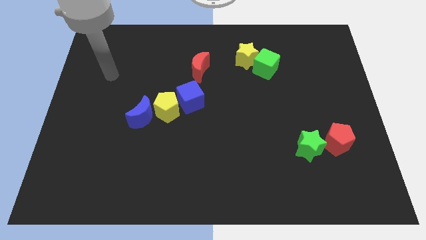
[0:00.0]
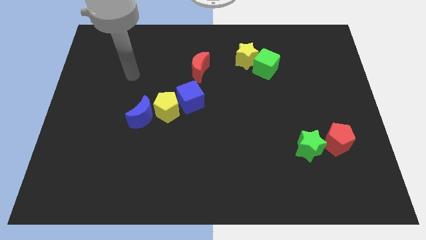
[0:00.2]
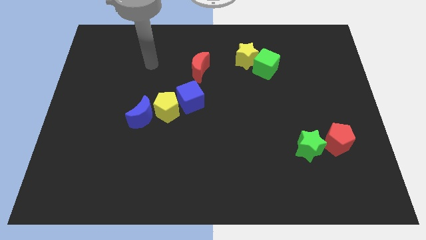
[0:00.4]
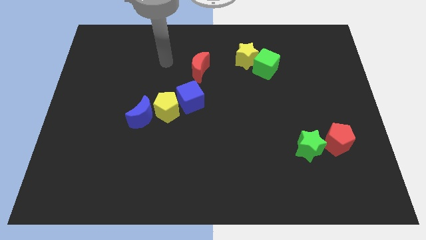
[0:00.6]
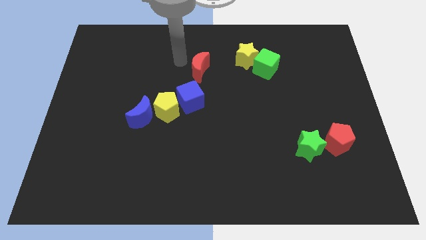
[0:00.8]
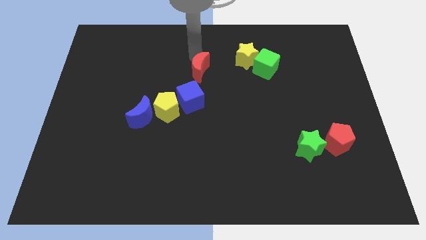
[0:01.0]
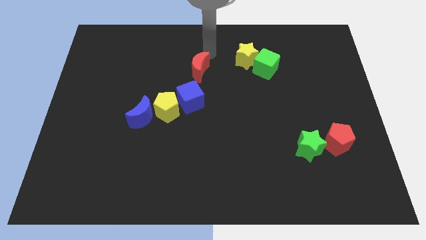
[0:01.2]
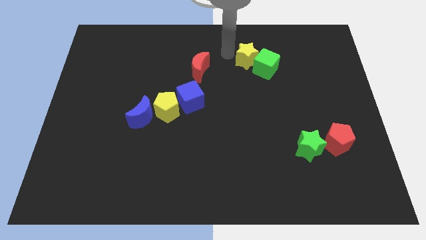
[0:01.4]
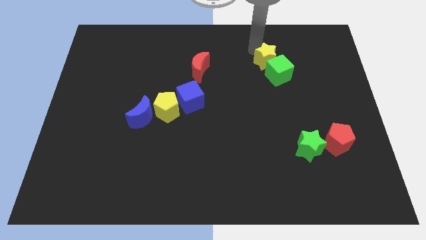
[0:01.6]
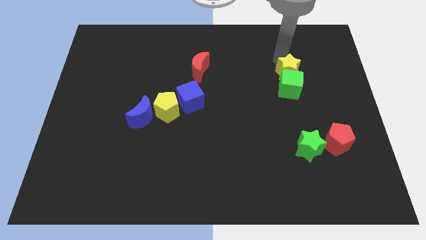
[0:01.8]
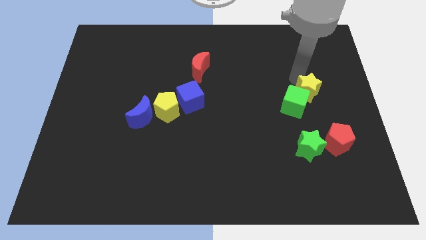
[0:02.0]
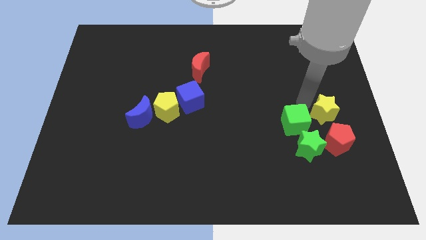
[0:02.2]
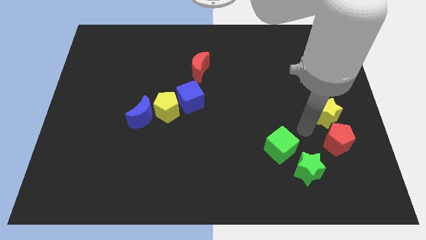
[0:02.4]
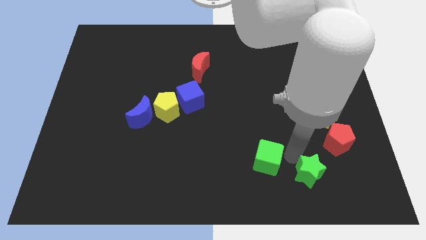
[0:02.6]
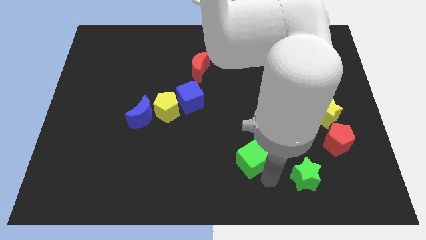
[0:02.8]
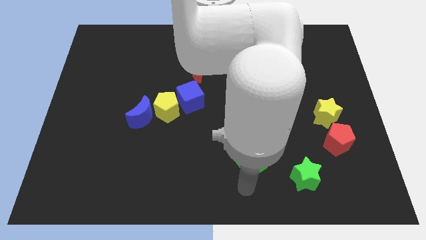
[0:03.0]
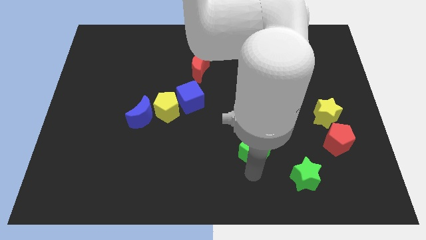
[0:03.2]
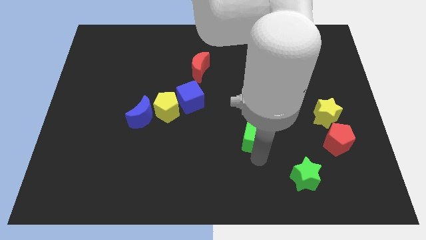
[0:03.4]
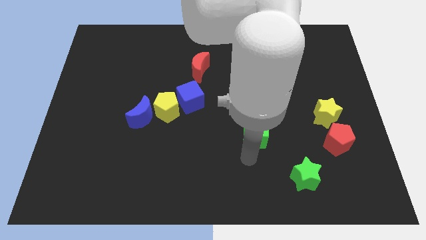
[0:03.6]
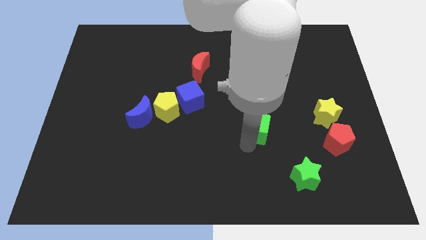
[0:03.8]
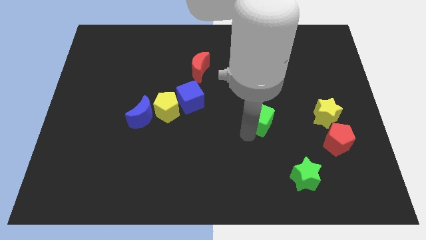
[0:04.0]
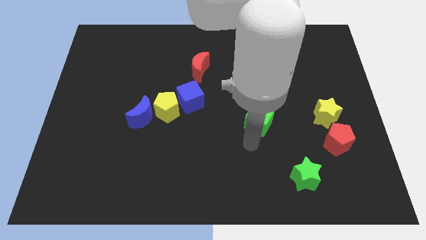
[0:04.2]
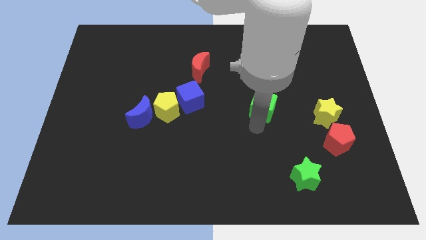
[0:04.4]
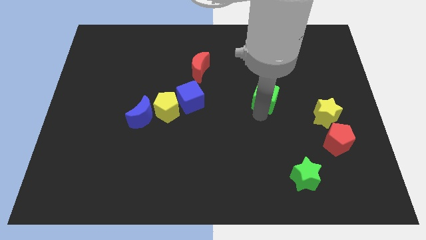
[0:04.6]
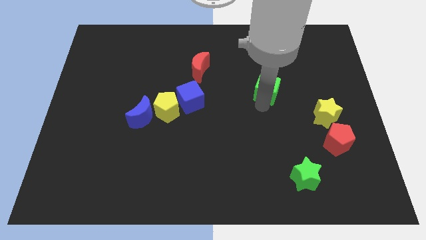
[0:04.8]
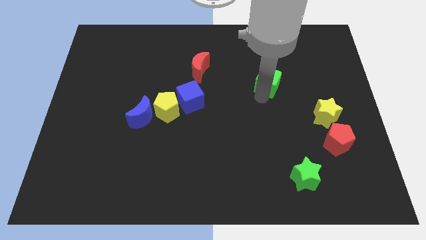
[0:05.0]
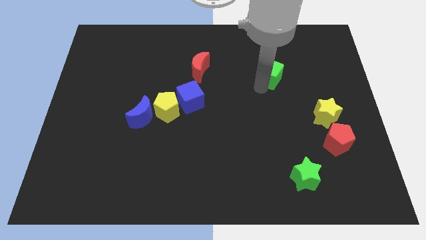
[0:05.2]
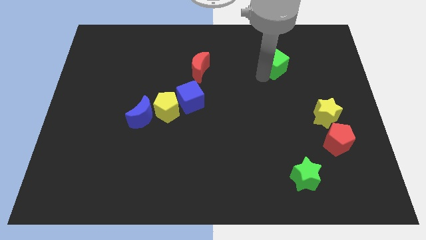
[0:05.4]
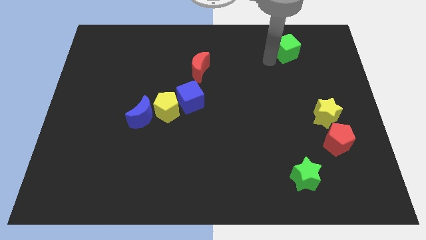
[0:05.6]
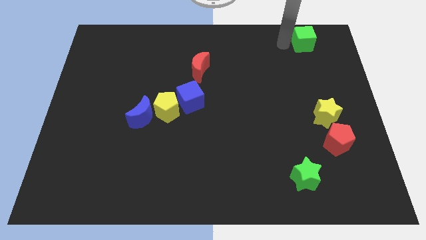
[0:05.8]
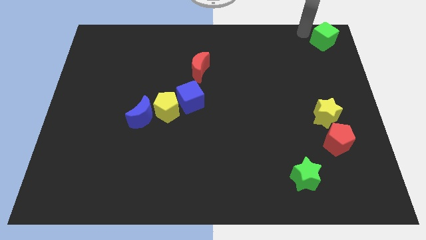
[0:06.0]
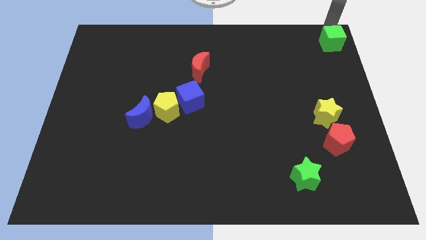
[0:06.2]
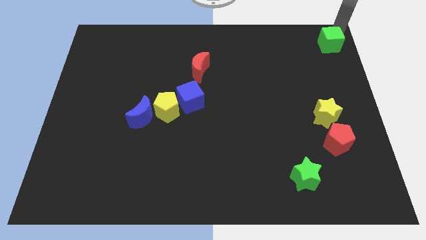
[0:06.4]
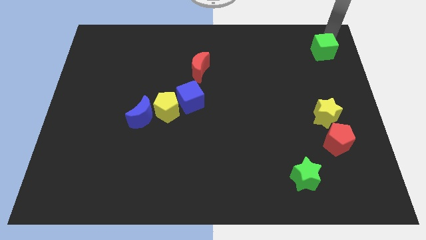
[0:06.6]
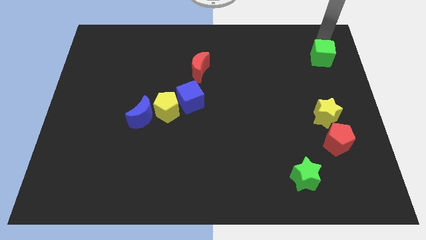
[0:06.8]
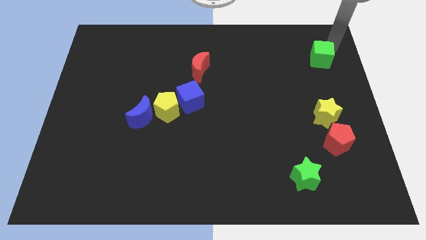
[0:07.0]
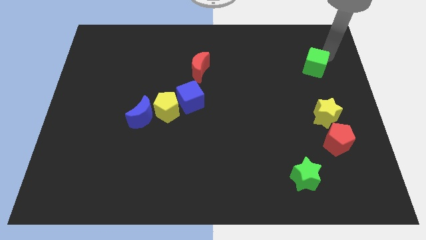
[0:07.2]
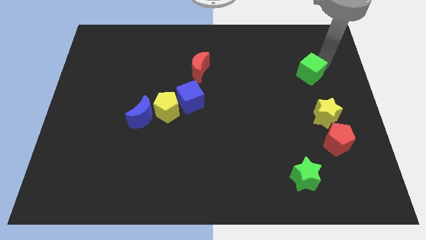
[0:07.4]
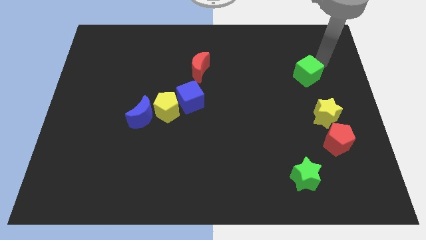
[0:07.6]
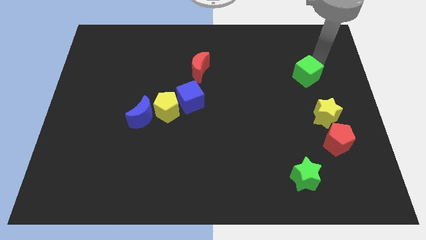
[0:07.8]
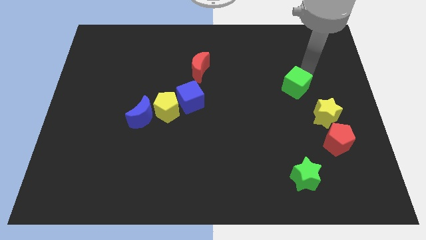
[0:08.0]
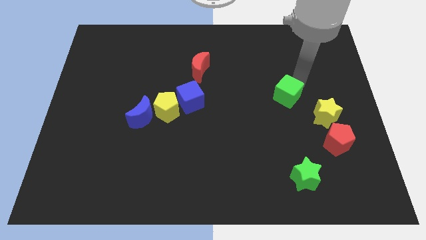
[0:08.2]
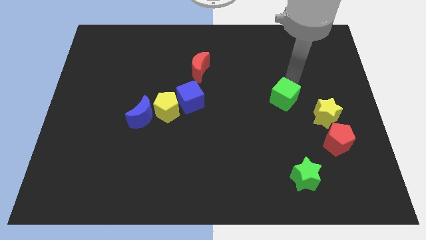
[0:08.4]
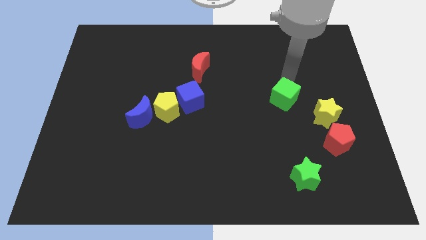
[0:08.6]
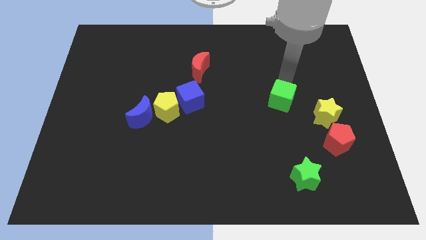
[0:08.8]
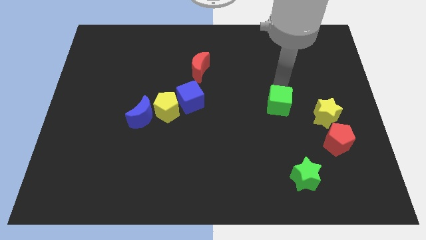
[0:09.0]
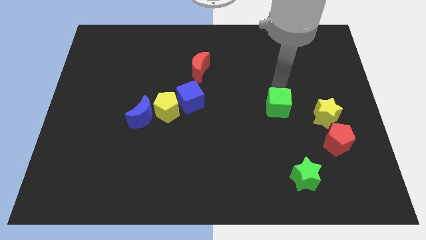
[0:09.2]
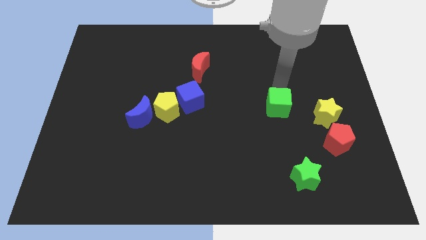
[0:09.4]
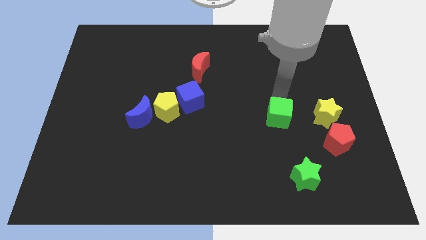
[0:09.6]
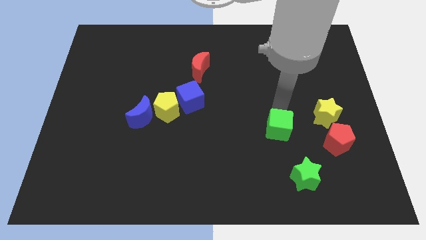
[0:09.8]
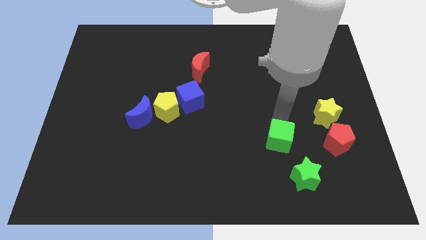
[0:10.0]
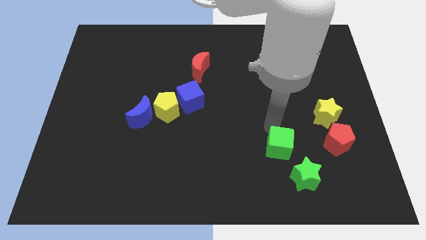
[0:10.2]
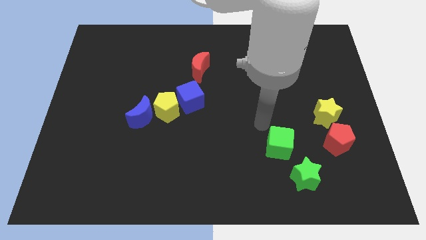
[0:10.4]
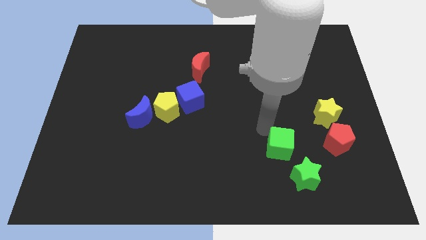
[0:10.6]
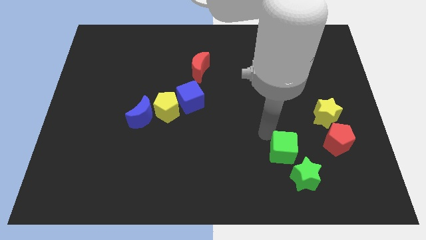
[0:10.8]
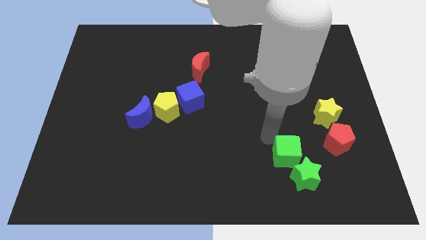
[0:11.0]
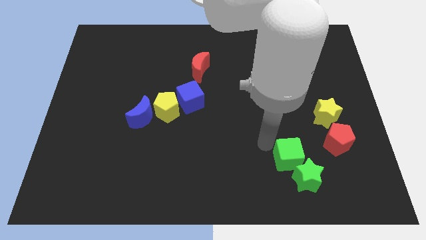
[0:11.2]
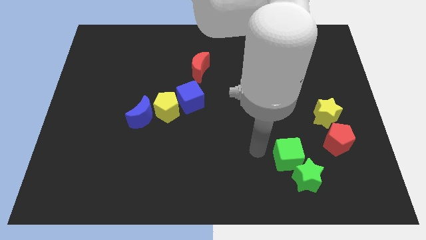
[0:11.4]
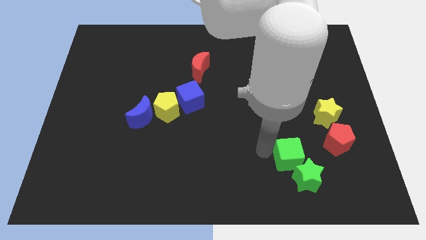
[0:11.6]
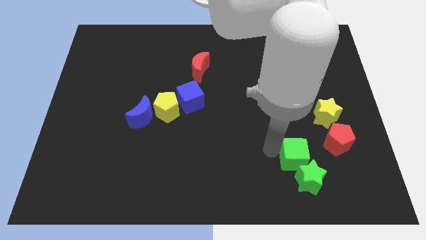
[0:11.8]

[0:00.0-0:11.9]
put the green cube diagonally down and to the left of the red pentagon

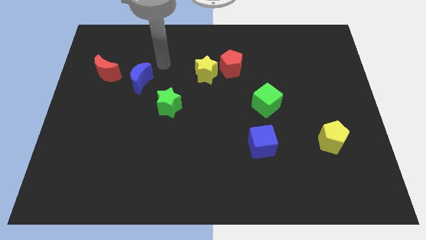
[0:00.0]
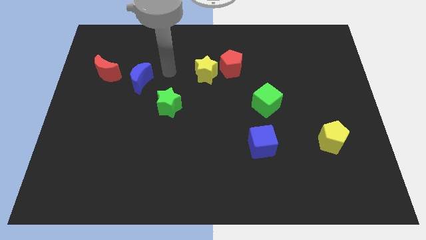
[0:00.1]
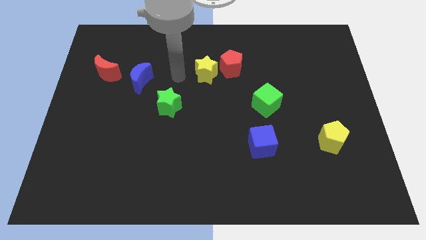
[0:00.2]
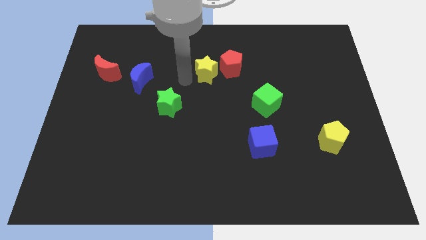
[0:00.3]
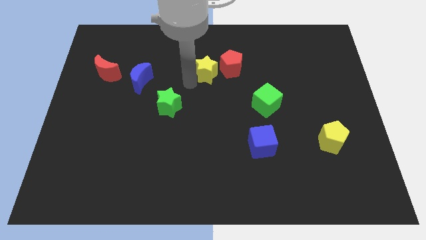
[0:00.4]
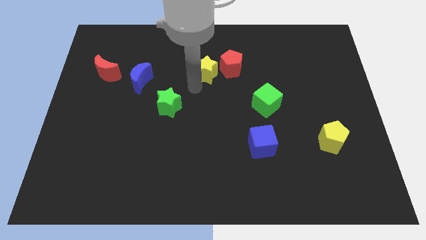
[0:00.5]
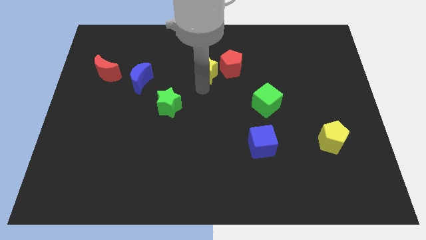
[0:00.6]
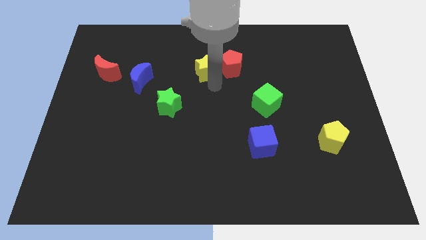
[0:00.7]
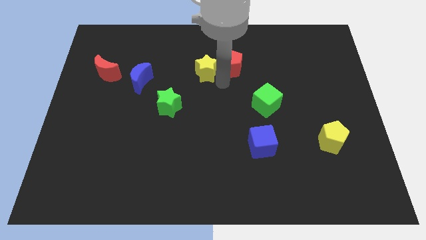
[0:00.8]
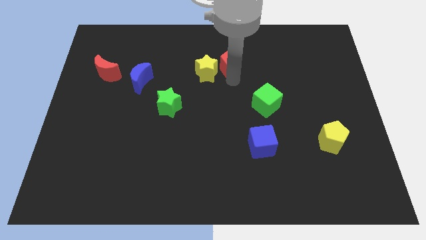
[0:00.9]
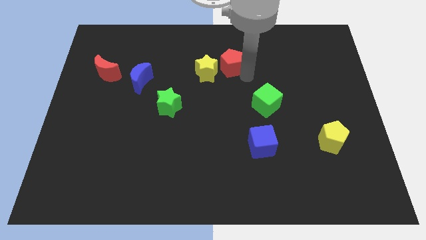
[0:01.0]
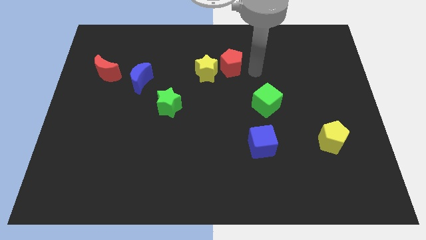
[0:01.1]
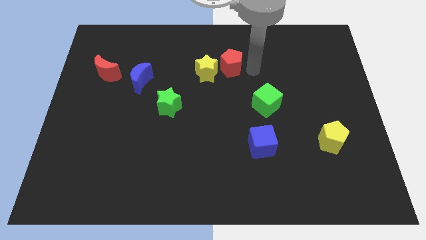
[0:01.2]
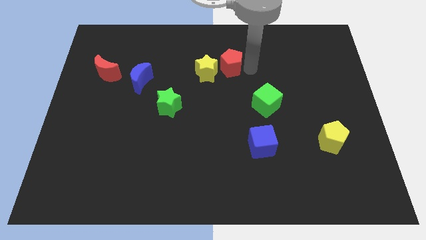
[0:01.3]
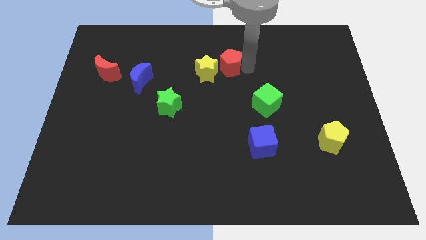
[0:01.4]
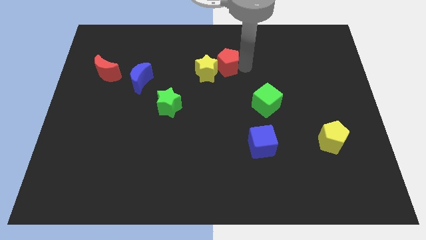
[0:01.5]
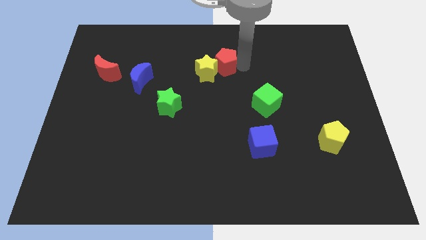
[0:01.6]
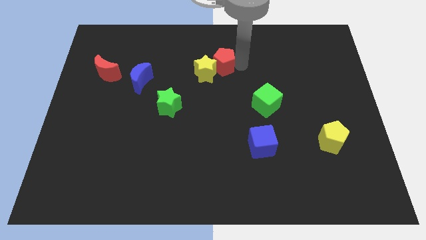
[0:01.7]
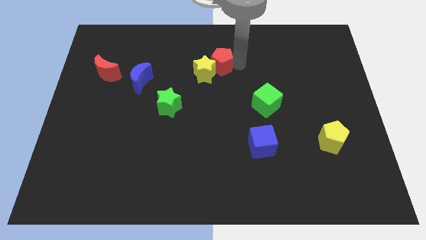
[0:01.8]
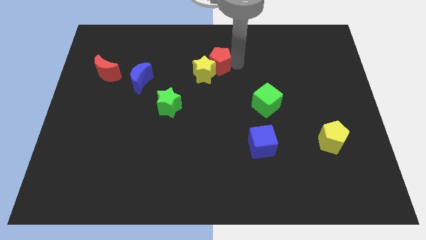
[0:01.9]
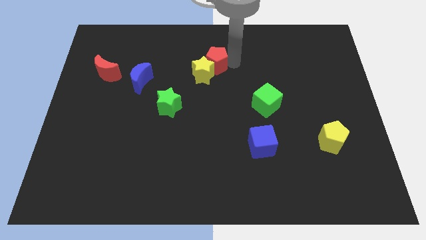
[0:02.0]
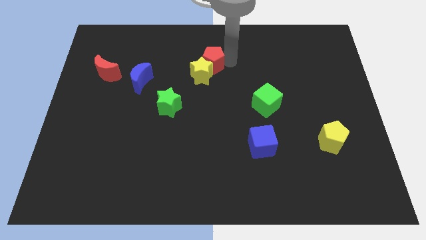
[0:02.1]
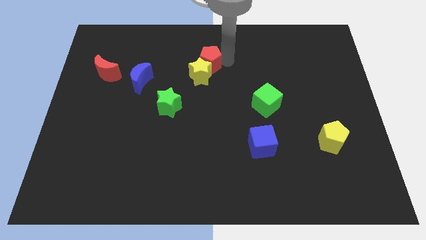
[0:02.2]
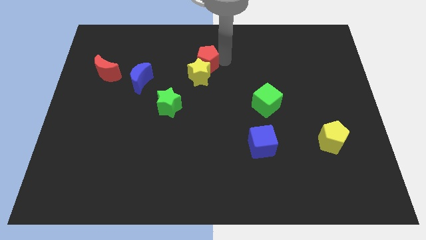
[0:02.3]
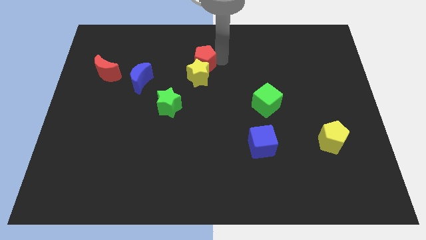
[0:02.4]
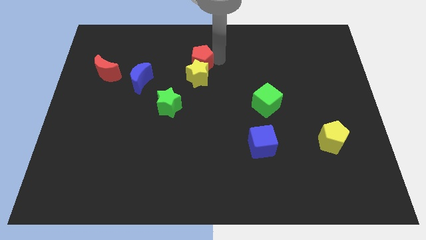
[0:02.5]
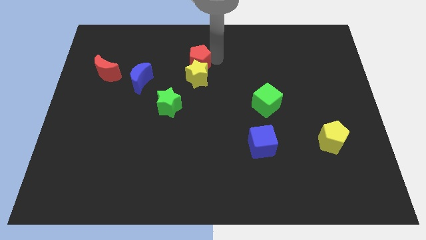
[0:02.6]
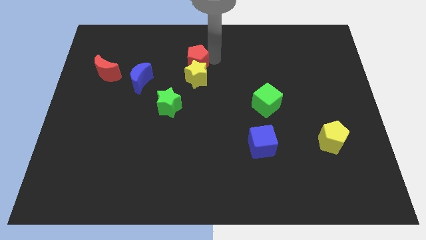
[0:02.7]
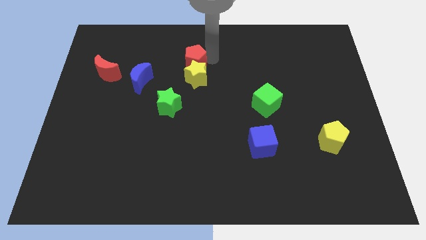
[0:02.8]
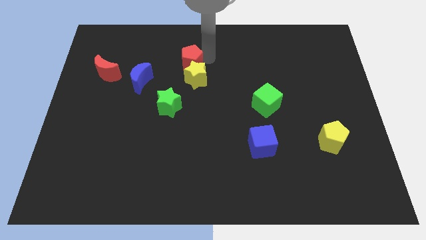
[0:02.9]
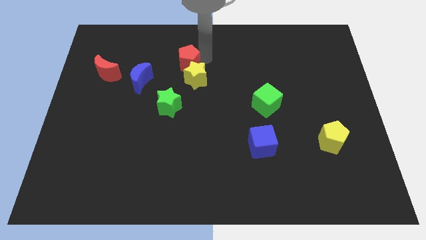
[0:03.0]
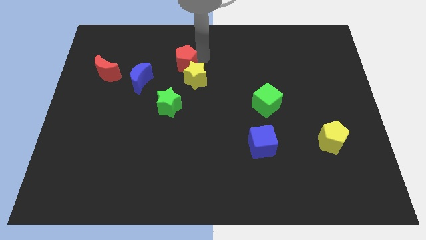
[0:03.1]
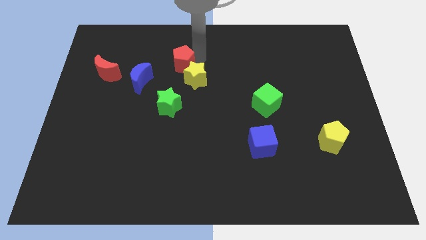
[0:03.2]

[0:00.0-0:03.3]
move the red pentagon diagonally up and to the right of the blue moon
